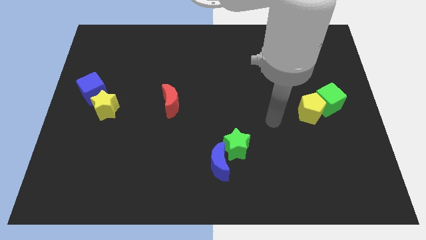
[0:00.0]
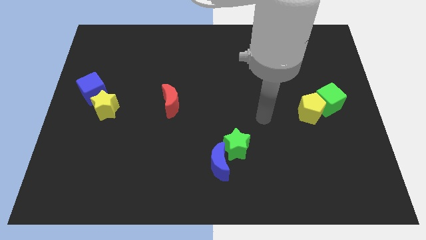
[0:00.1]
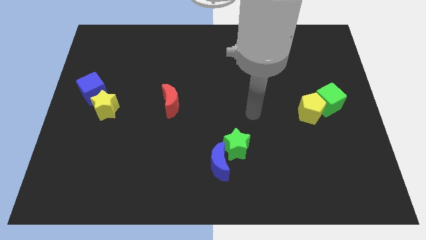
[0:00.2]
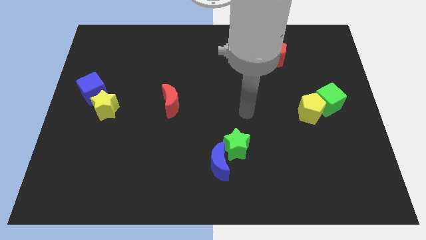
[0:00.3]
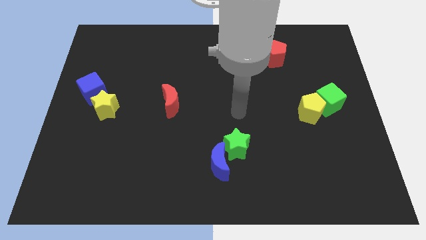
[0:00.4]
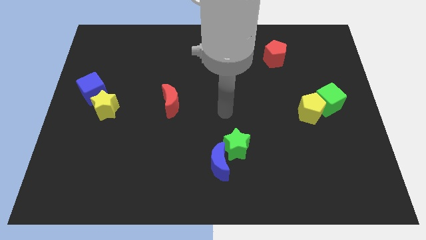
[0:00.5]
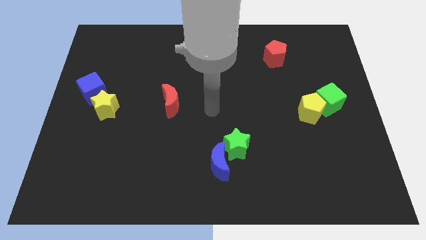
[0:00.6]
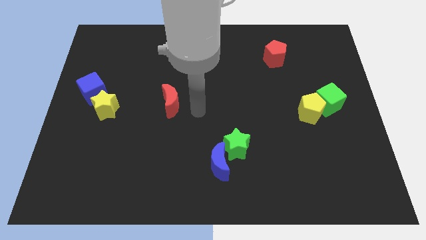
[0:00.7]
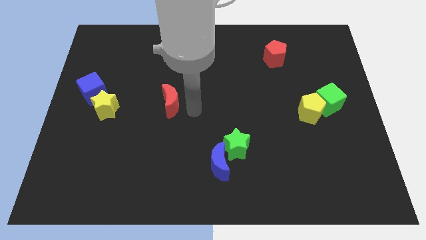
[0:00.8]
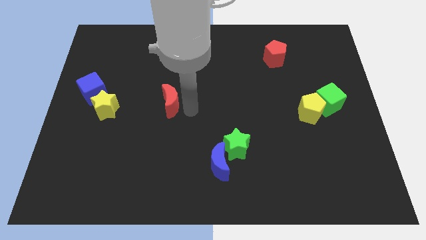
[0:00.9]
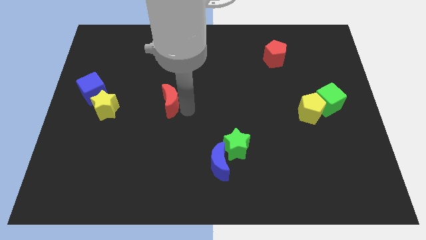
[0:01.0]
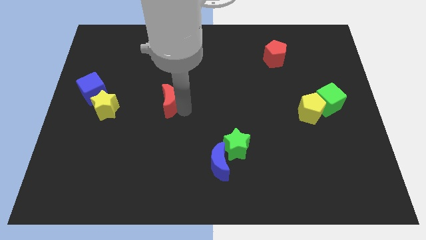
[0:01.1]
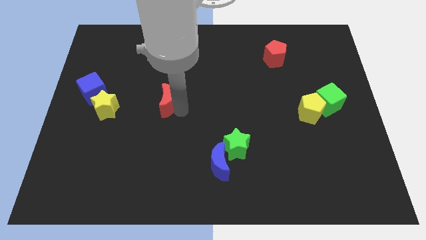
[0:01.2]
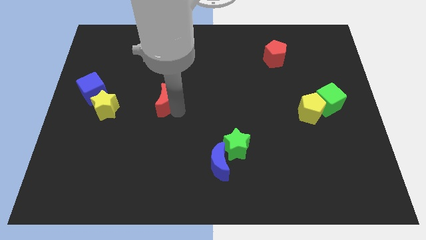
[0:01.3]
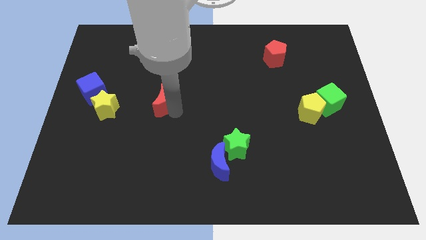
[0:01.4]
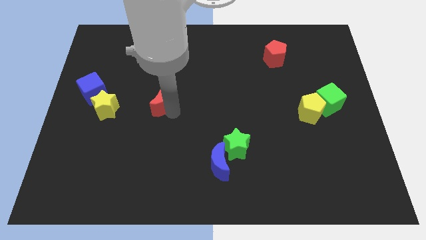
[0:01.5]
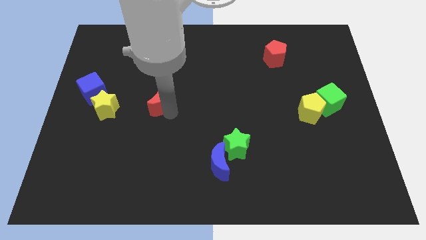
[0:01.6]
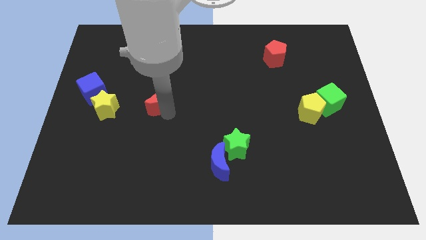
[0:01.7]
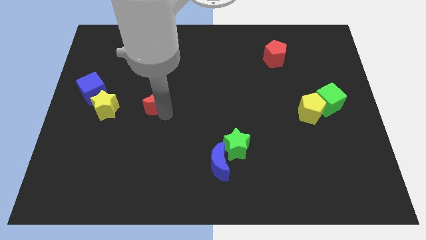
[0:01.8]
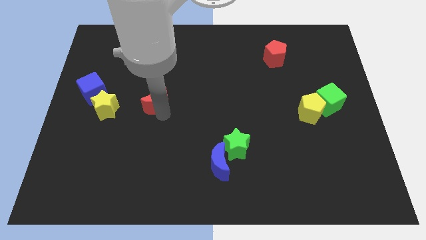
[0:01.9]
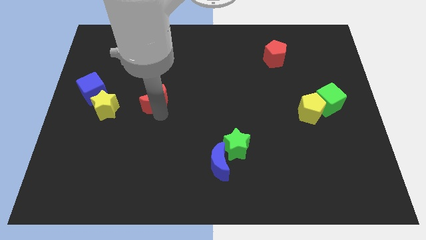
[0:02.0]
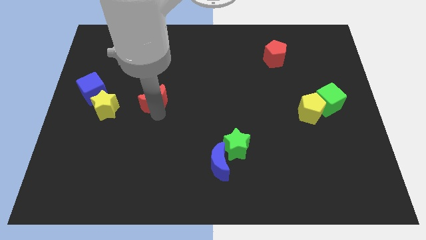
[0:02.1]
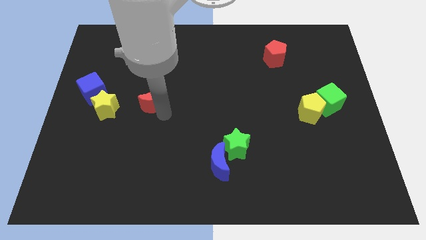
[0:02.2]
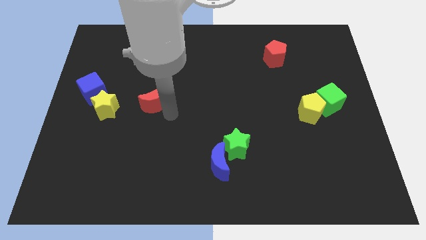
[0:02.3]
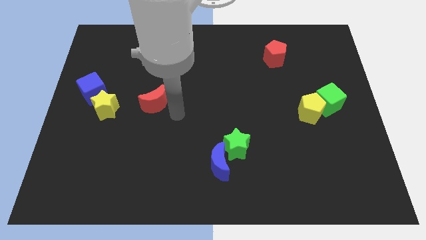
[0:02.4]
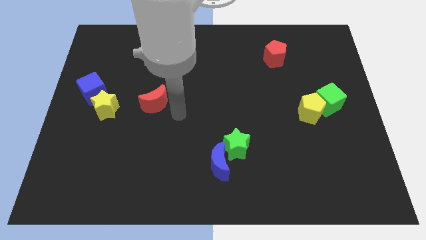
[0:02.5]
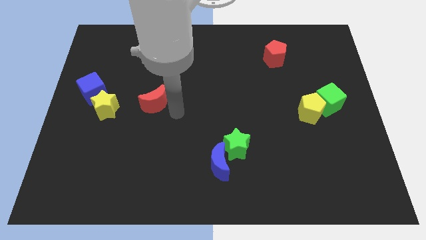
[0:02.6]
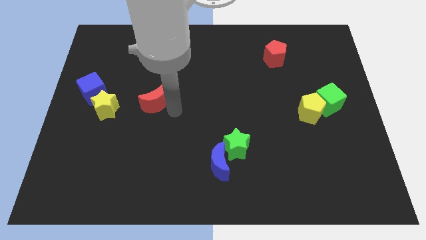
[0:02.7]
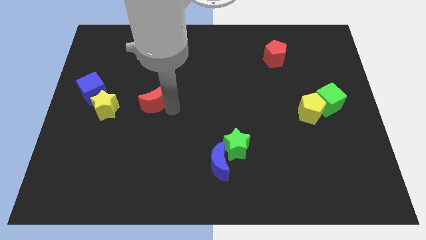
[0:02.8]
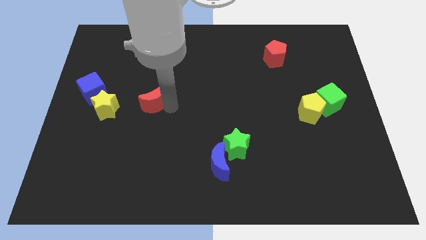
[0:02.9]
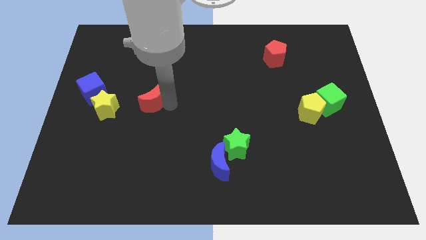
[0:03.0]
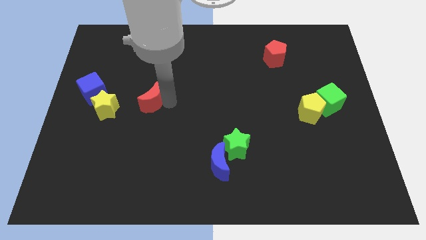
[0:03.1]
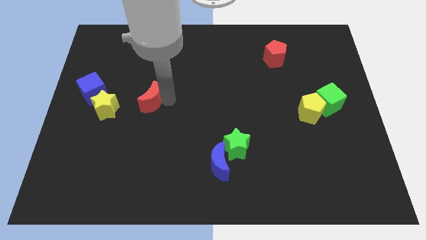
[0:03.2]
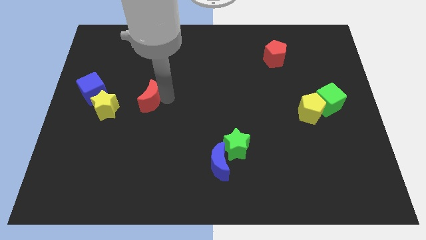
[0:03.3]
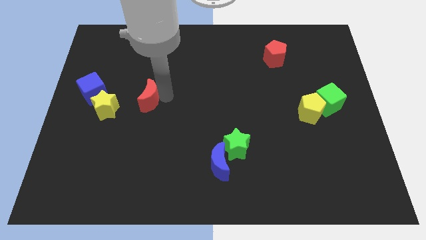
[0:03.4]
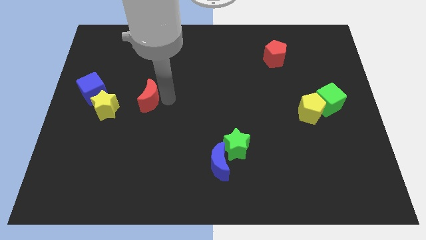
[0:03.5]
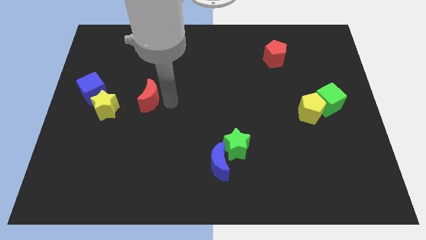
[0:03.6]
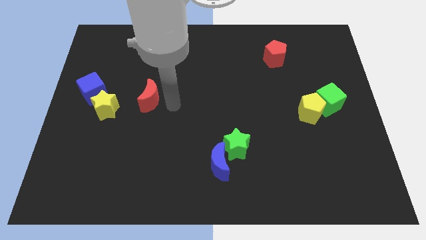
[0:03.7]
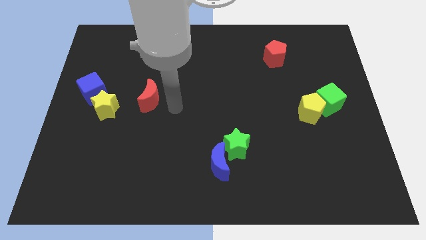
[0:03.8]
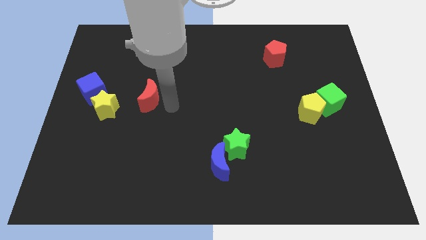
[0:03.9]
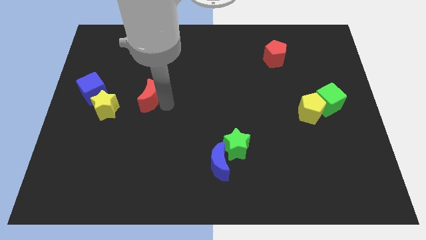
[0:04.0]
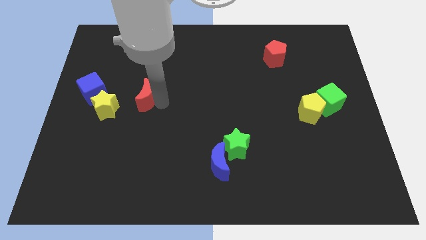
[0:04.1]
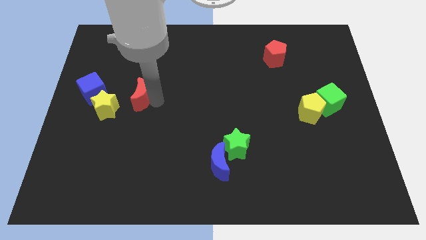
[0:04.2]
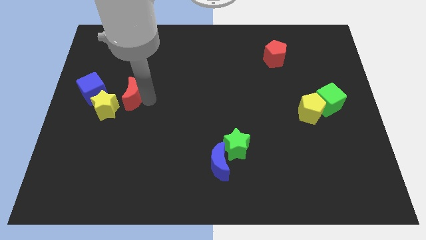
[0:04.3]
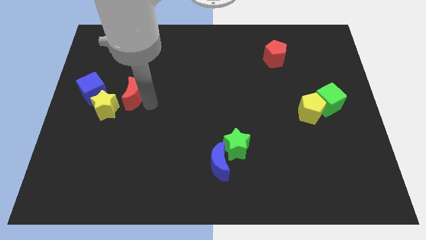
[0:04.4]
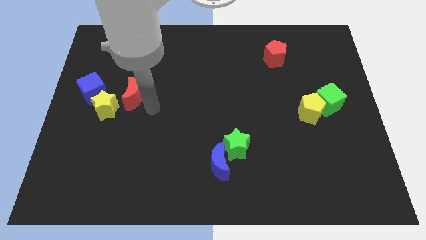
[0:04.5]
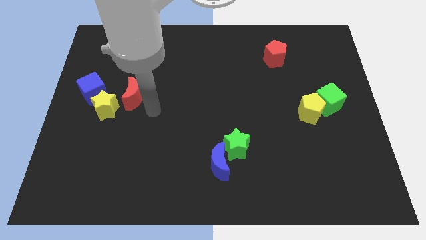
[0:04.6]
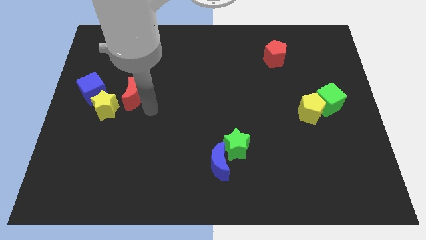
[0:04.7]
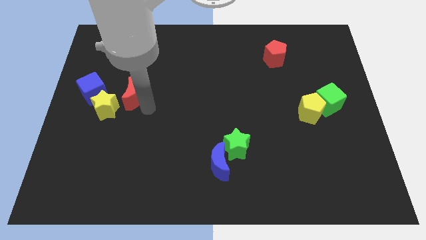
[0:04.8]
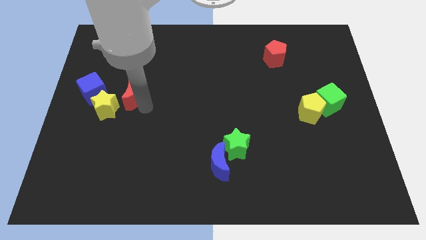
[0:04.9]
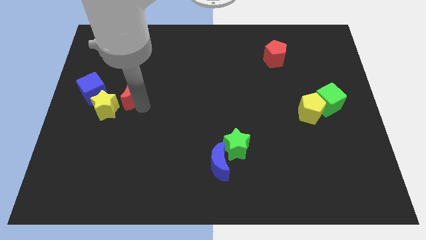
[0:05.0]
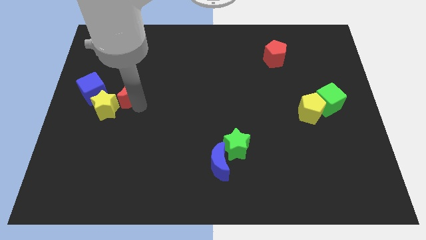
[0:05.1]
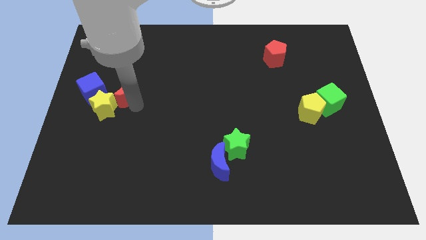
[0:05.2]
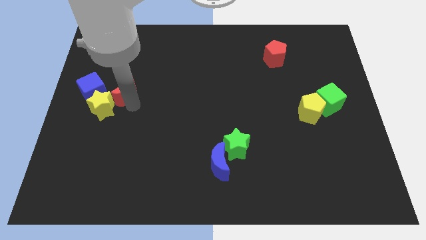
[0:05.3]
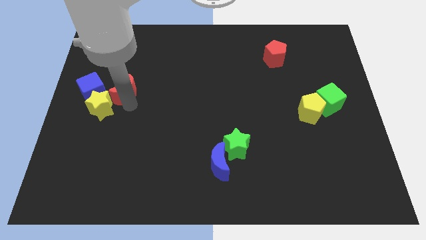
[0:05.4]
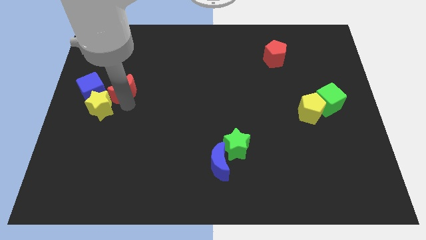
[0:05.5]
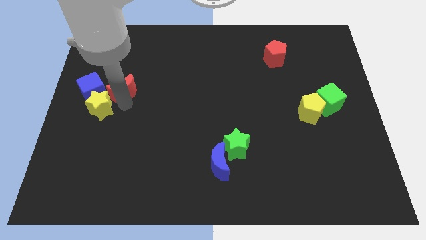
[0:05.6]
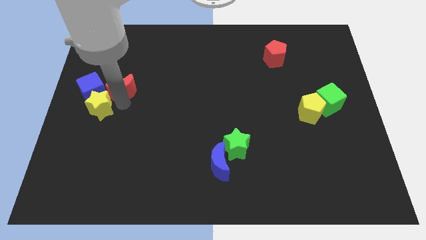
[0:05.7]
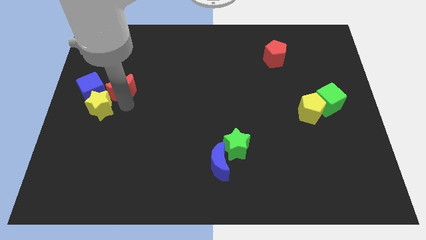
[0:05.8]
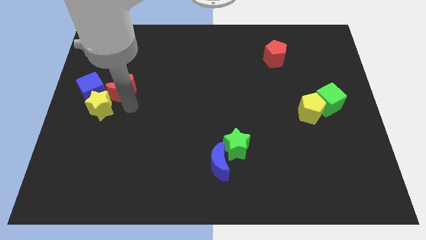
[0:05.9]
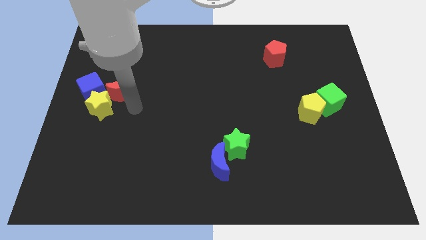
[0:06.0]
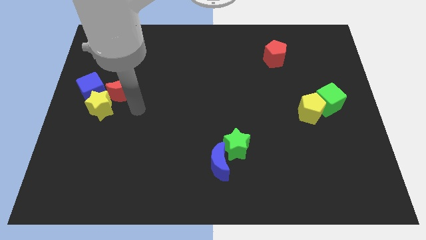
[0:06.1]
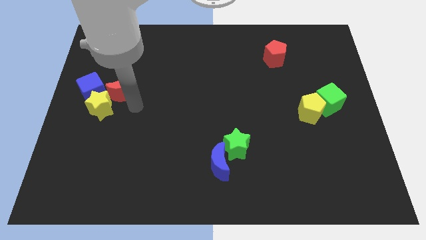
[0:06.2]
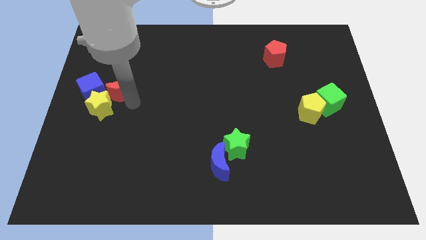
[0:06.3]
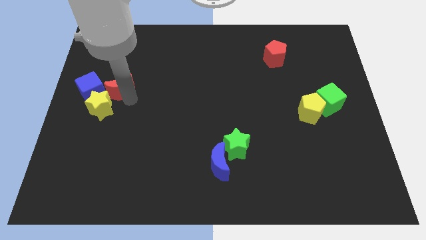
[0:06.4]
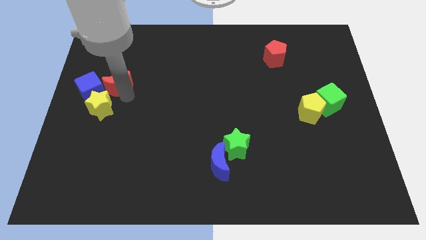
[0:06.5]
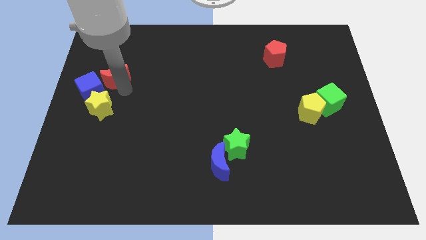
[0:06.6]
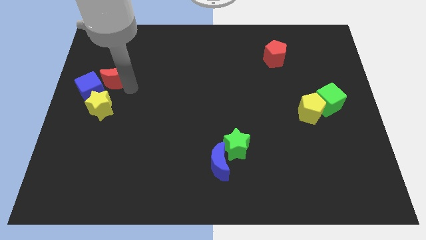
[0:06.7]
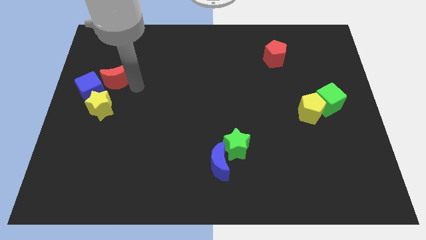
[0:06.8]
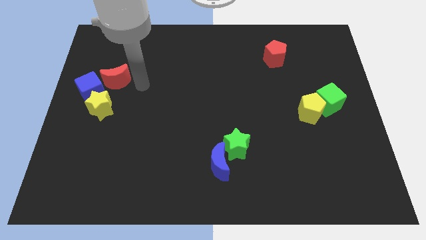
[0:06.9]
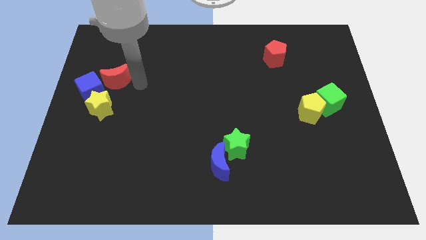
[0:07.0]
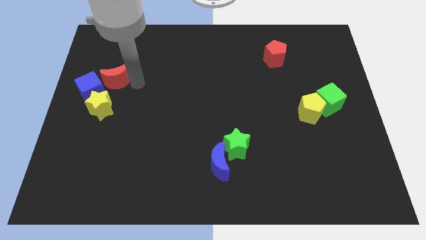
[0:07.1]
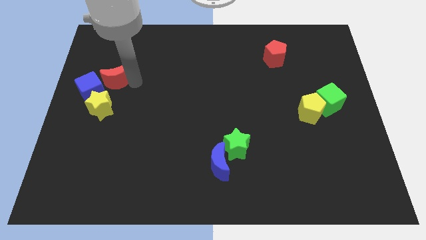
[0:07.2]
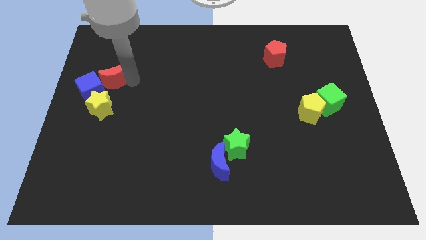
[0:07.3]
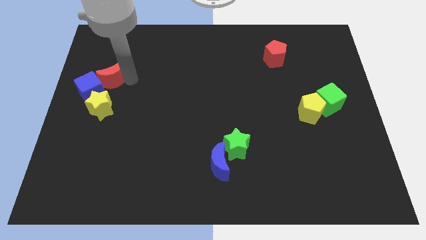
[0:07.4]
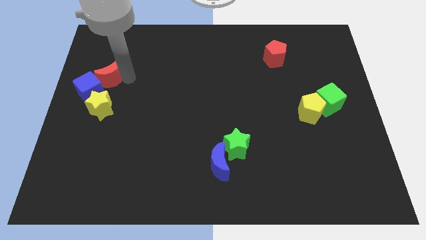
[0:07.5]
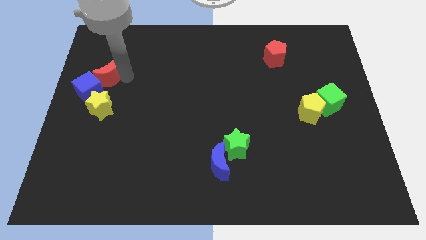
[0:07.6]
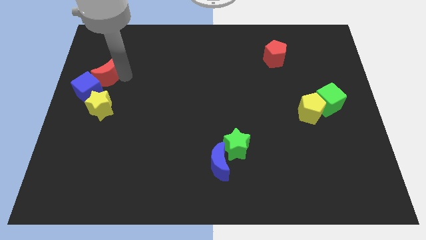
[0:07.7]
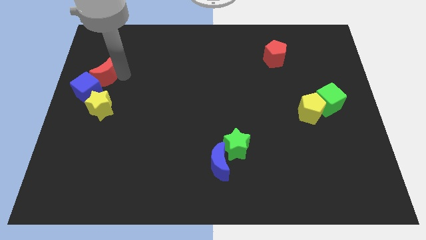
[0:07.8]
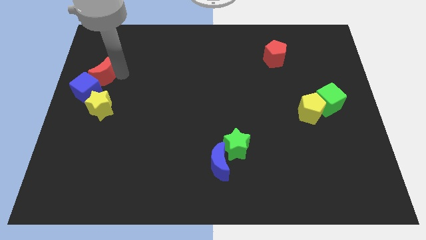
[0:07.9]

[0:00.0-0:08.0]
slide the red moon to the left side
